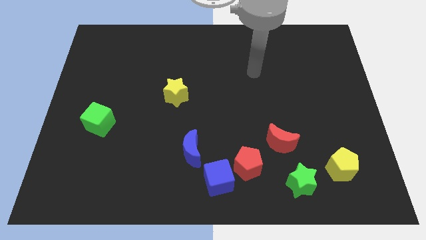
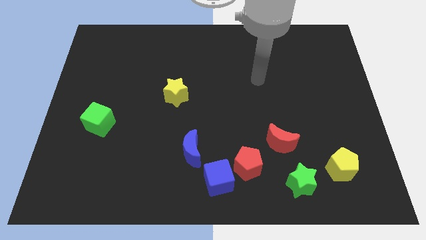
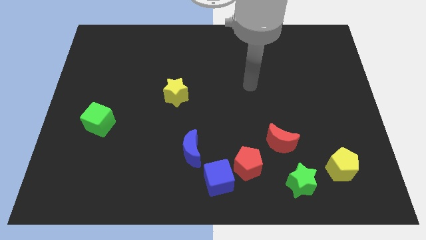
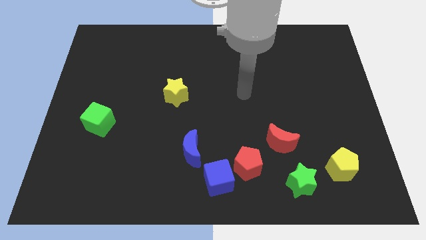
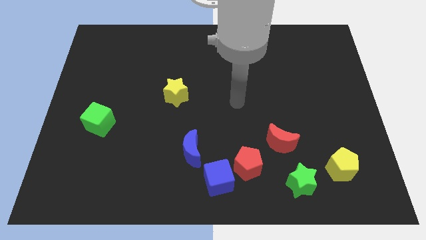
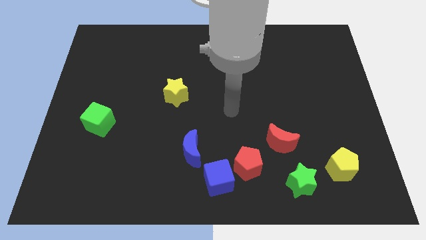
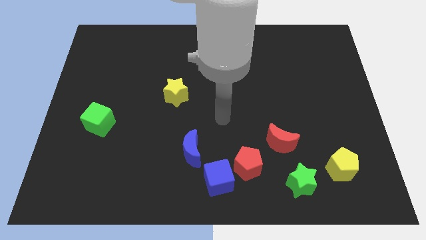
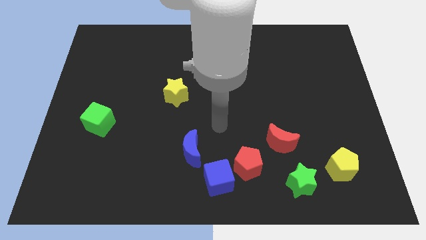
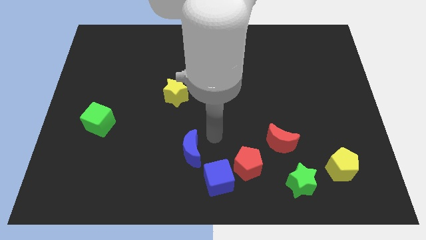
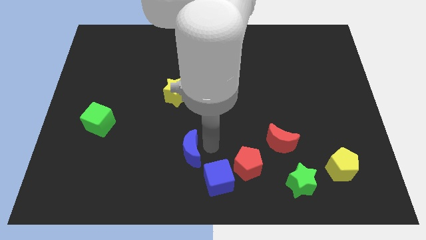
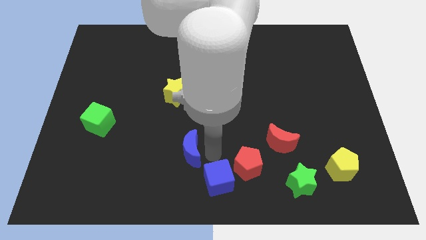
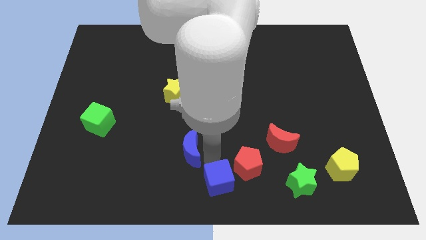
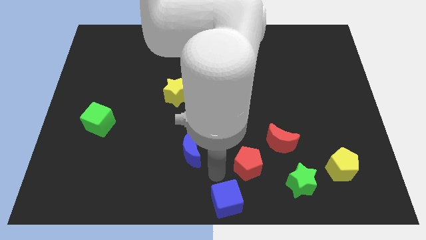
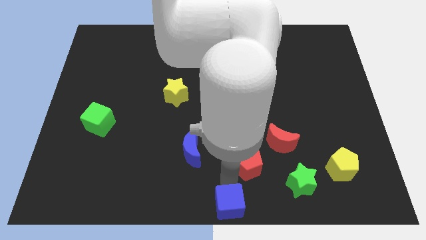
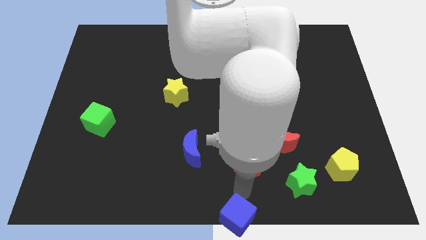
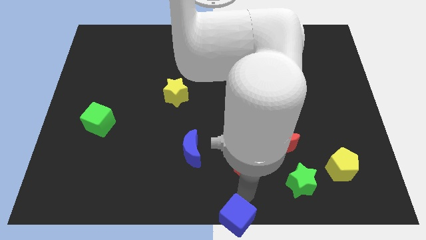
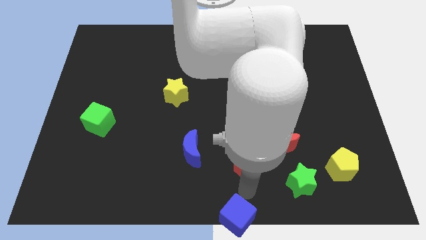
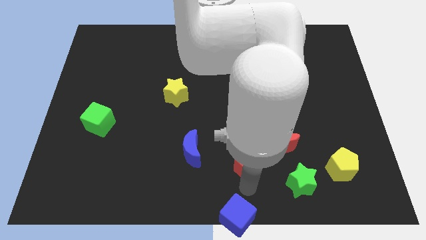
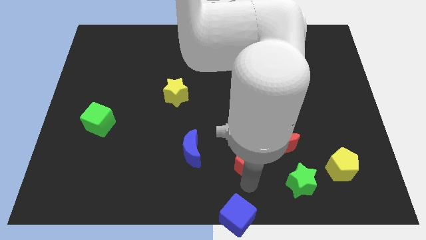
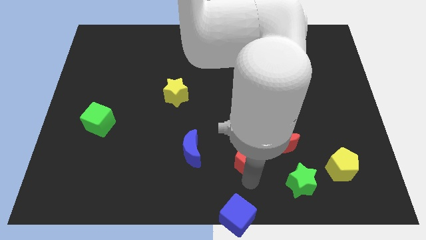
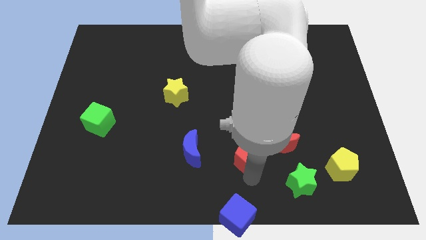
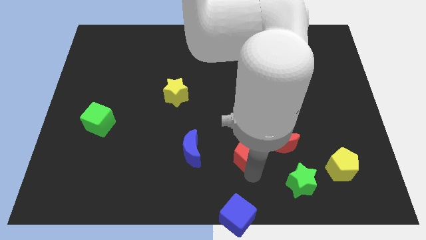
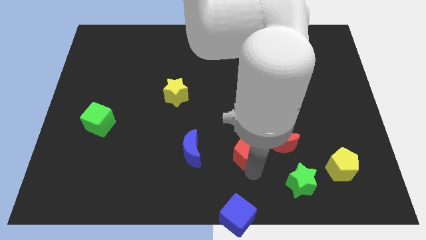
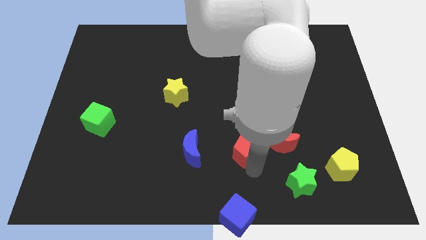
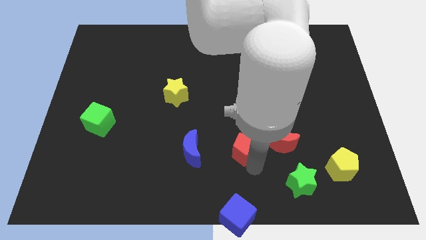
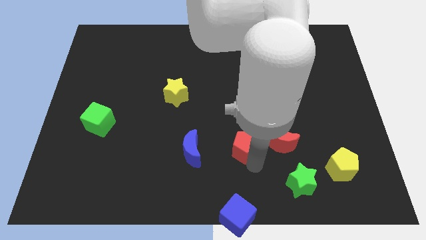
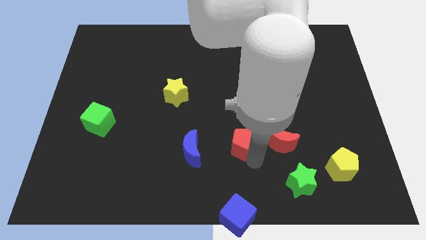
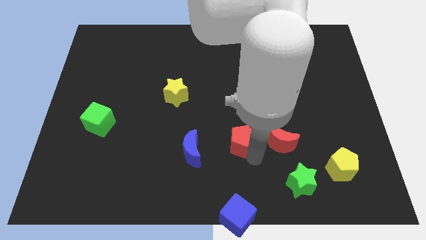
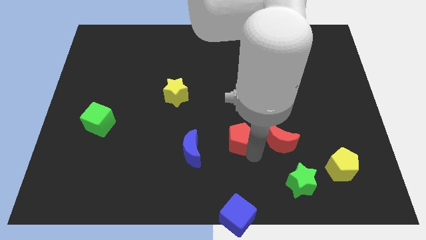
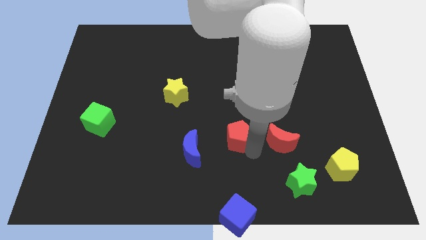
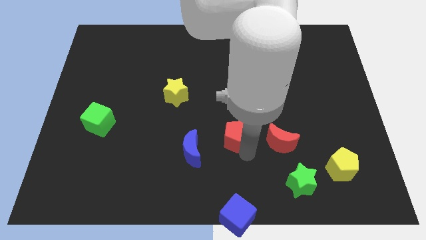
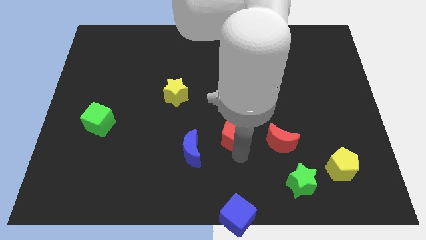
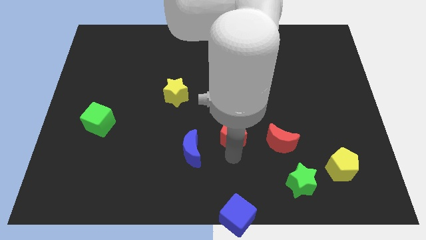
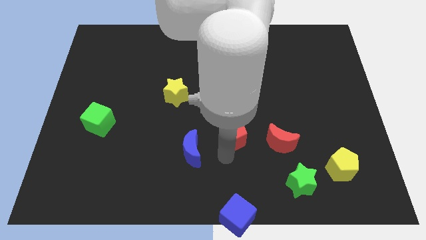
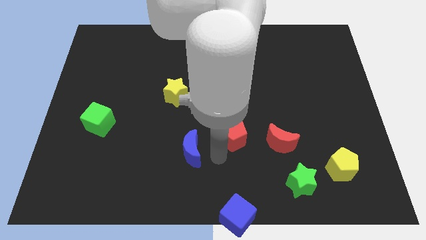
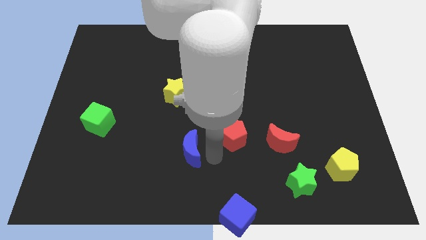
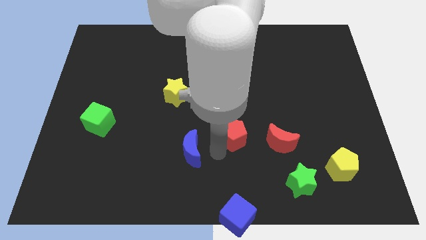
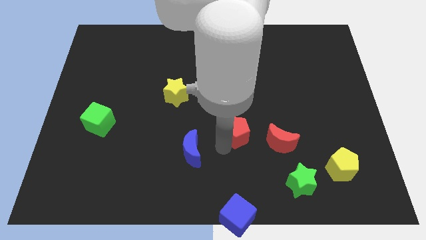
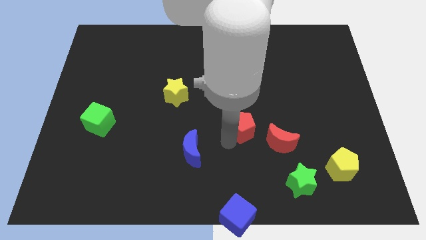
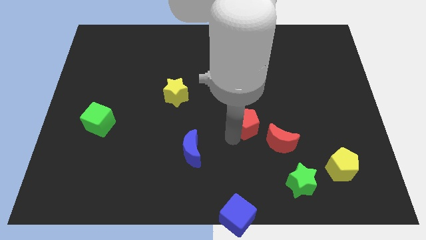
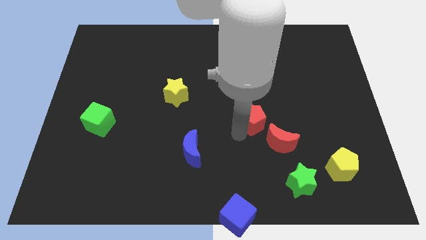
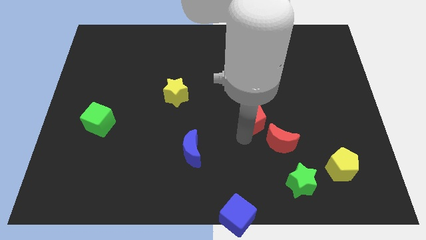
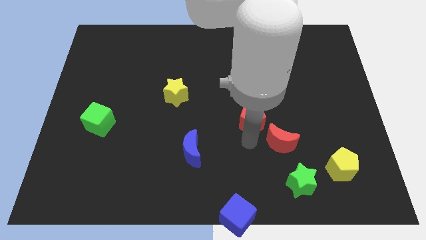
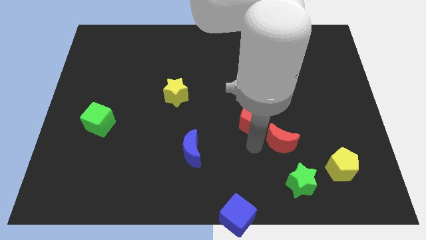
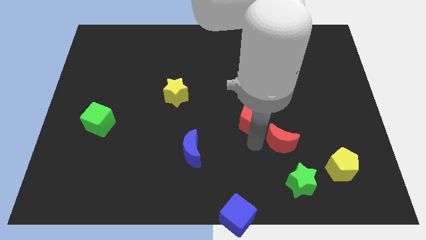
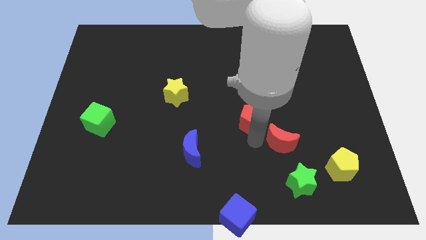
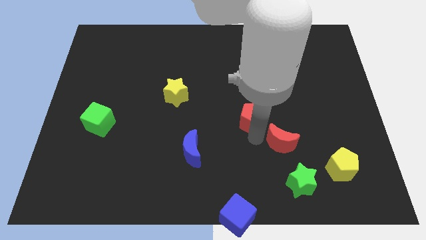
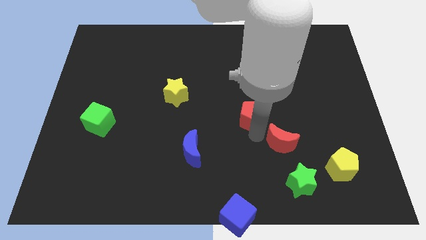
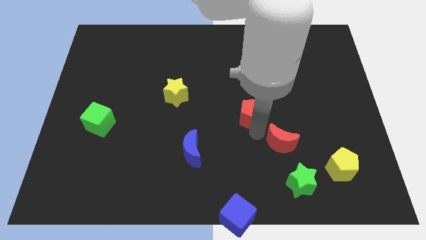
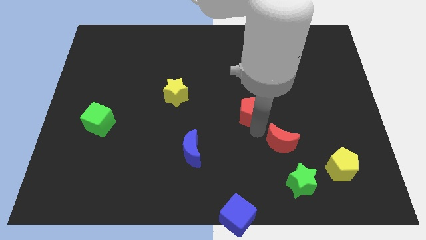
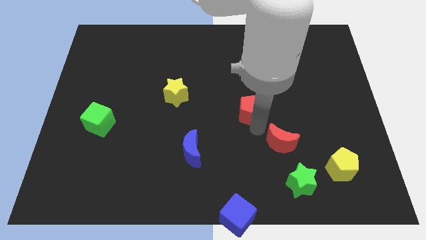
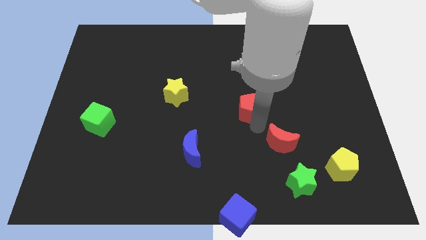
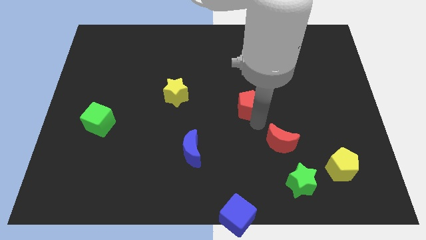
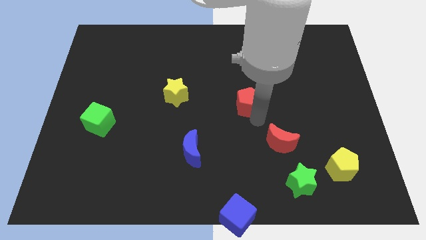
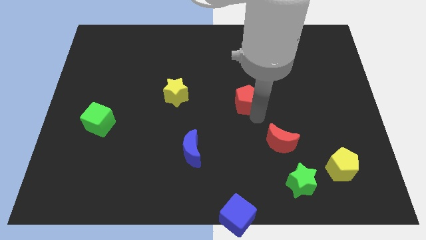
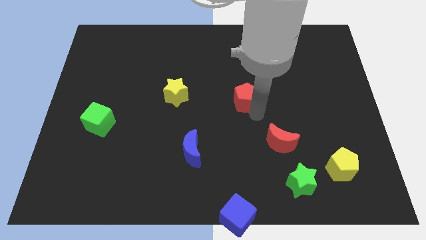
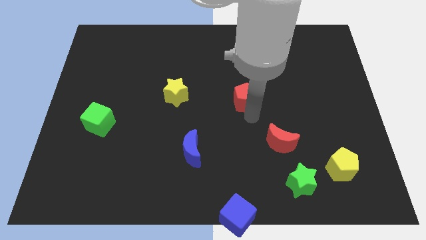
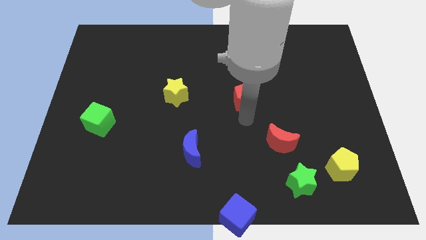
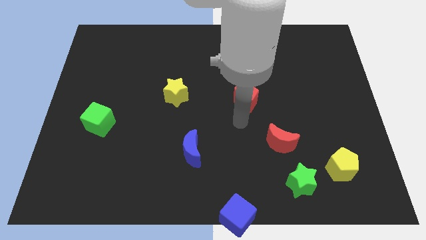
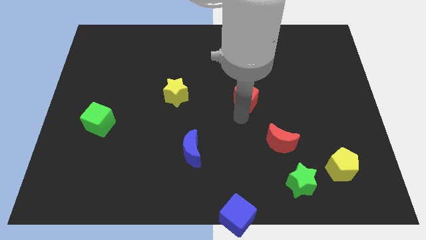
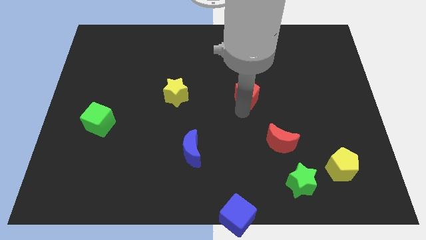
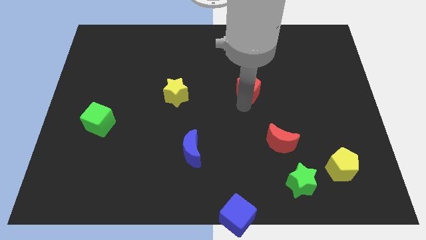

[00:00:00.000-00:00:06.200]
move the red pentagon up

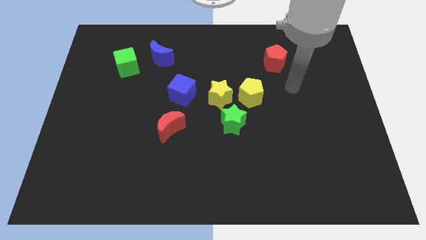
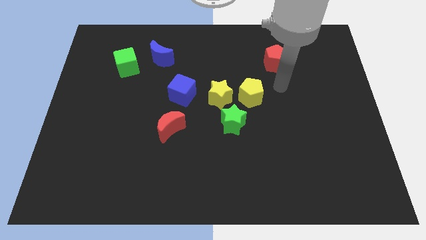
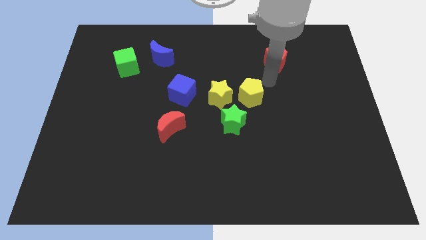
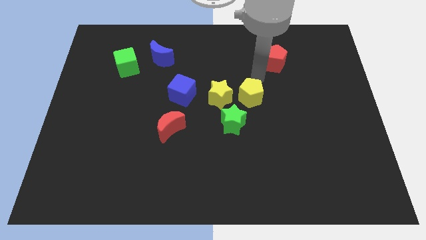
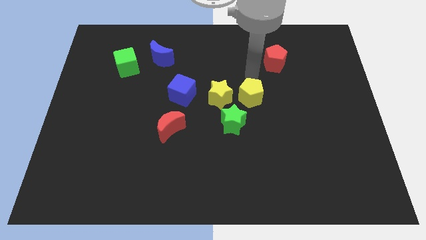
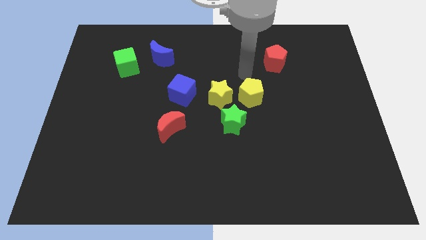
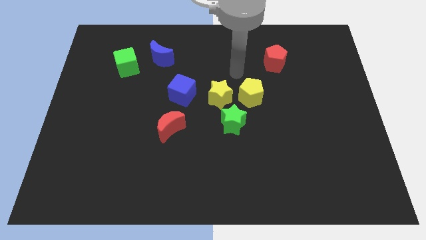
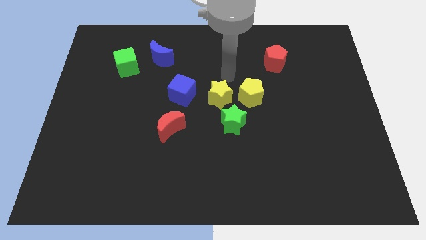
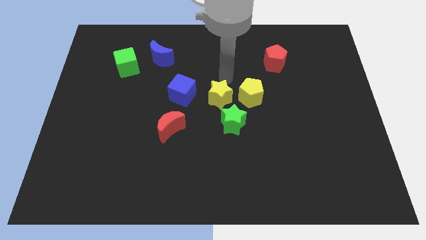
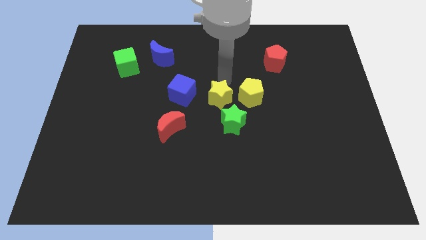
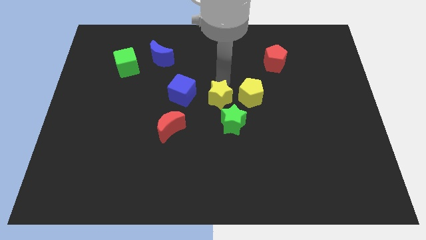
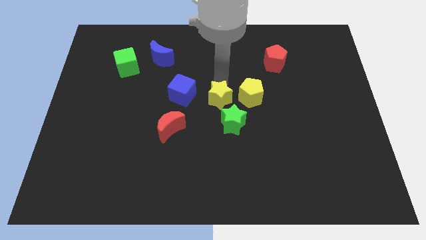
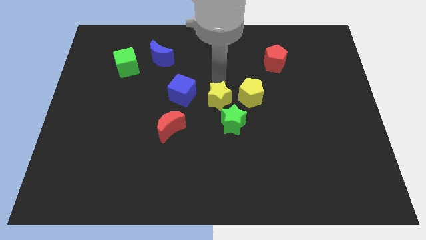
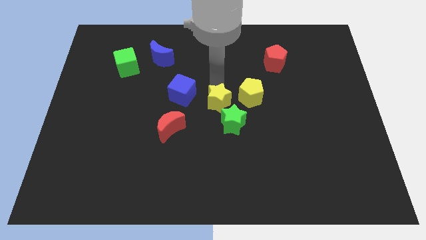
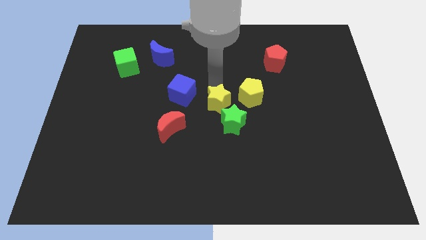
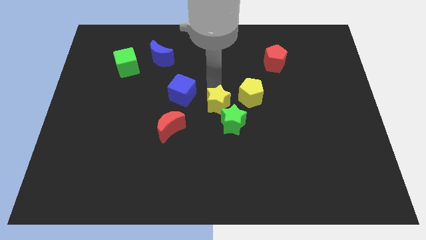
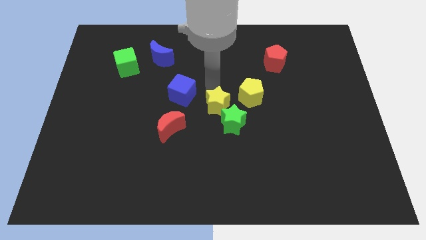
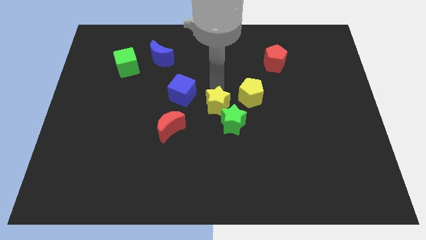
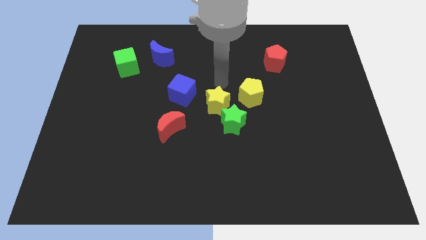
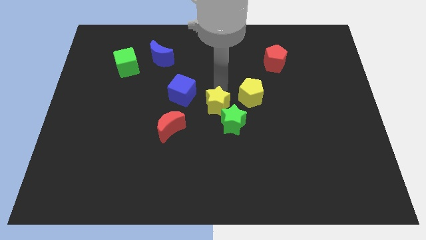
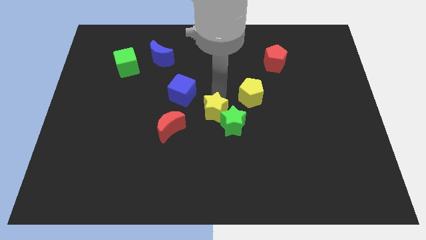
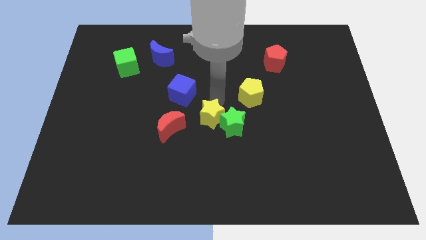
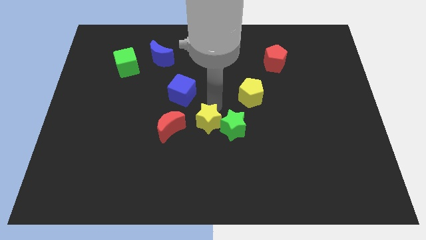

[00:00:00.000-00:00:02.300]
push the yellow star slightly downwards

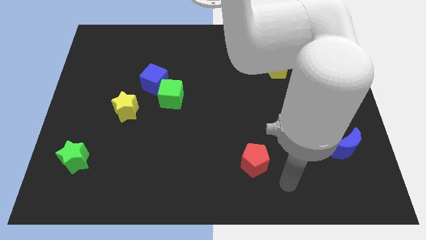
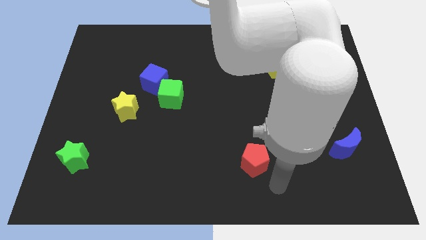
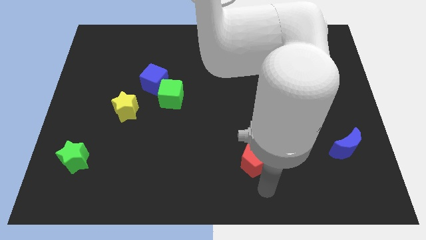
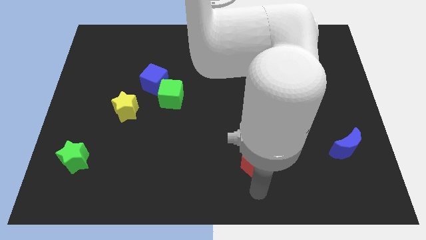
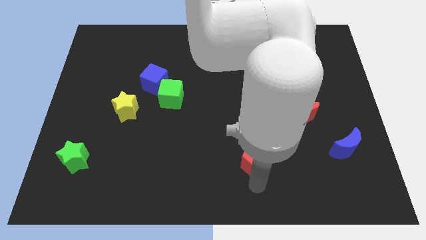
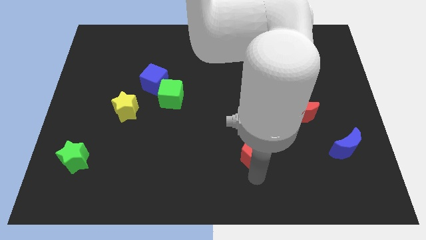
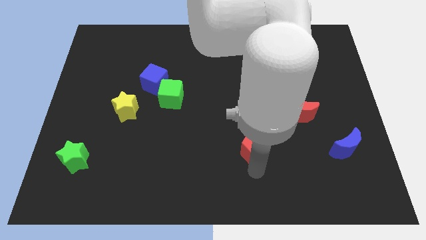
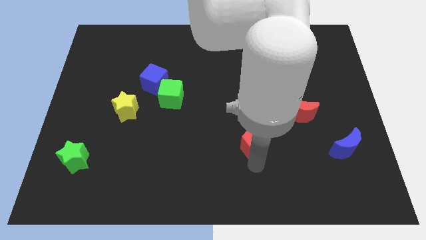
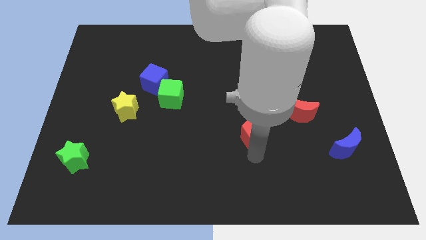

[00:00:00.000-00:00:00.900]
move the red pentagon upwards a little
